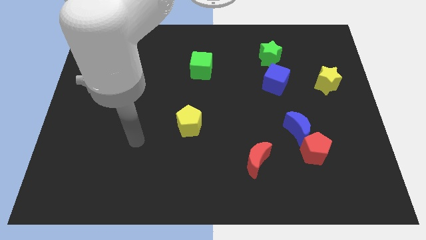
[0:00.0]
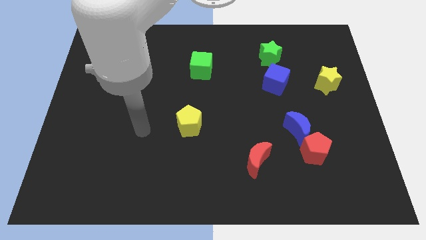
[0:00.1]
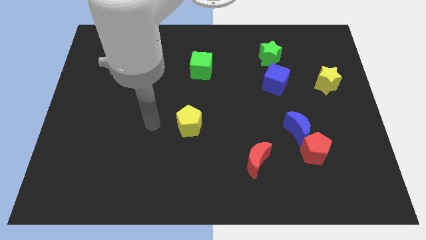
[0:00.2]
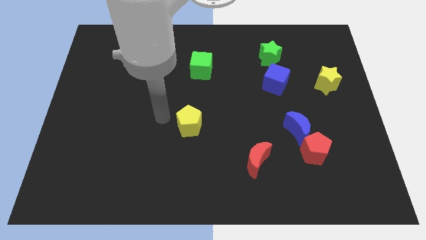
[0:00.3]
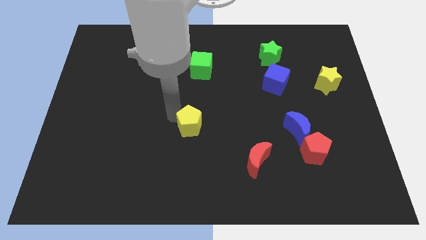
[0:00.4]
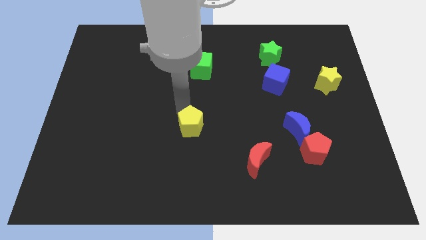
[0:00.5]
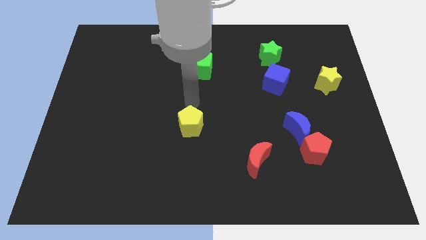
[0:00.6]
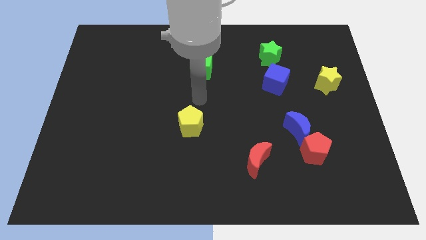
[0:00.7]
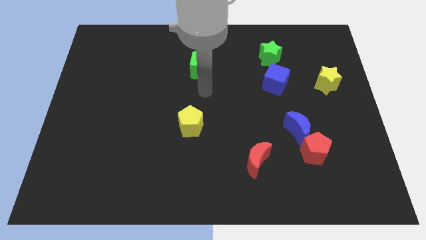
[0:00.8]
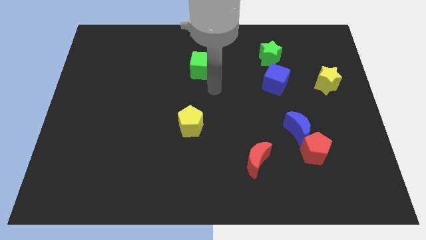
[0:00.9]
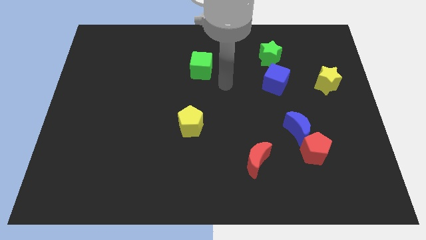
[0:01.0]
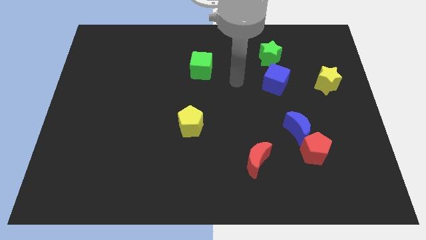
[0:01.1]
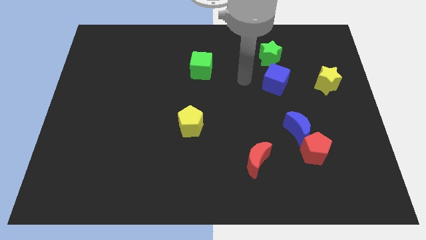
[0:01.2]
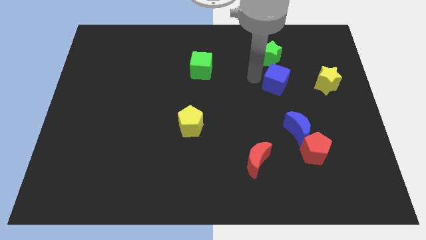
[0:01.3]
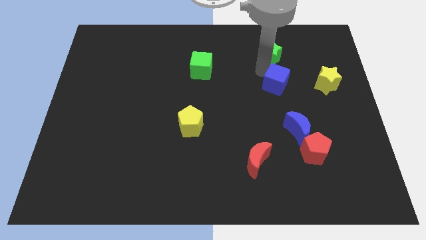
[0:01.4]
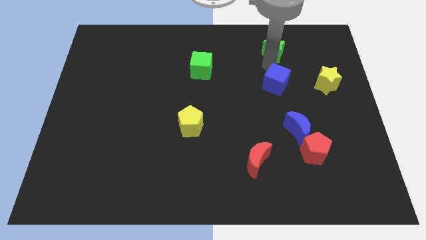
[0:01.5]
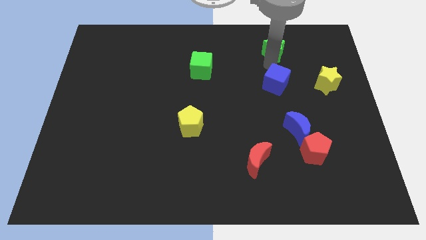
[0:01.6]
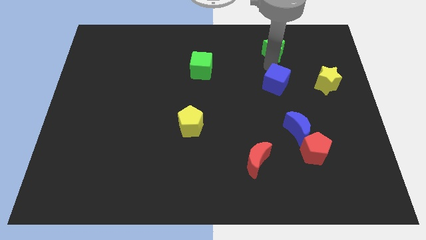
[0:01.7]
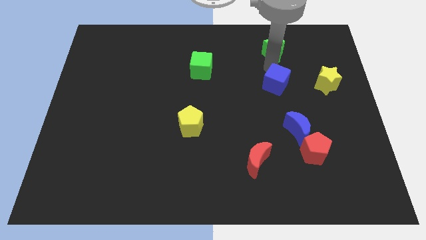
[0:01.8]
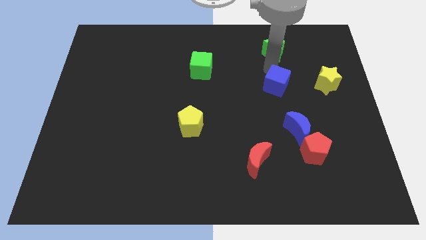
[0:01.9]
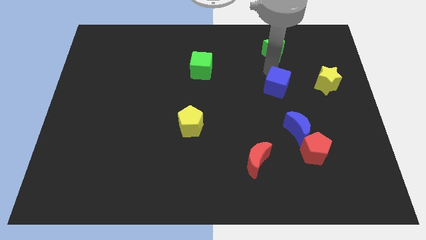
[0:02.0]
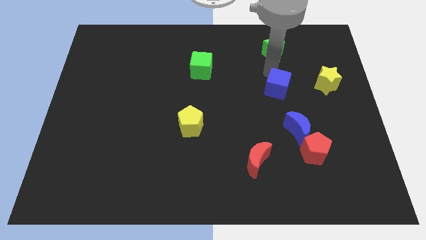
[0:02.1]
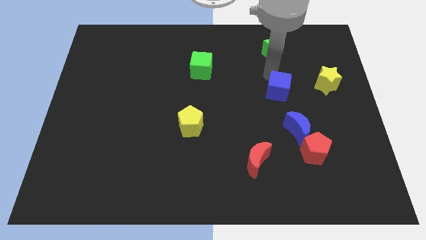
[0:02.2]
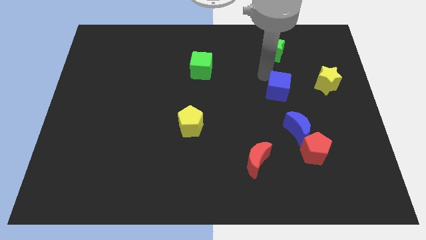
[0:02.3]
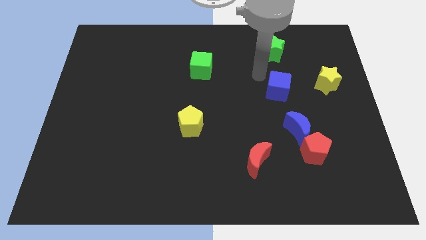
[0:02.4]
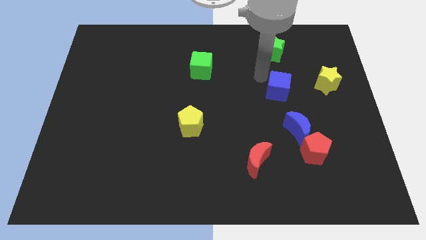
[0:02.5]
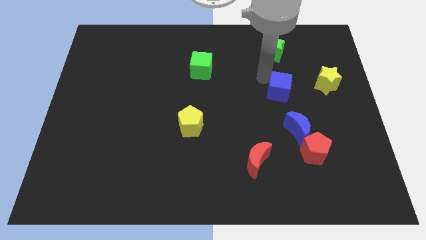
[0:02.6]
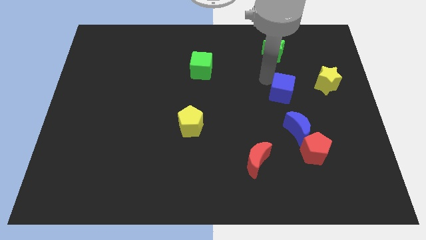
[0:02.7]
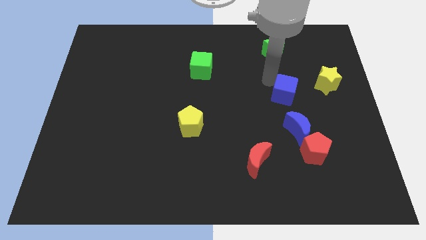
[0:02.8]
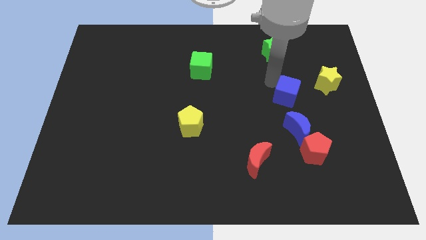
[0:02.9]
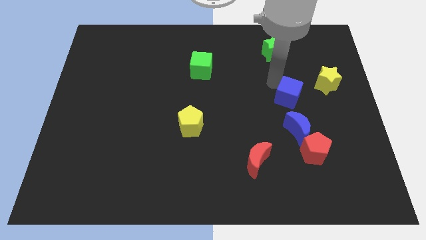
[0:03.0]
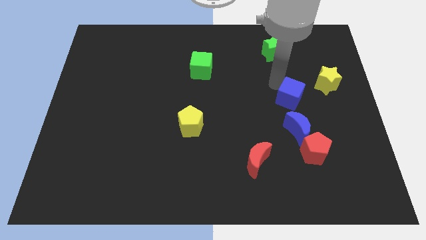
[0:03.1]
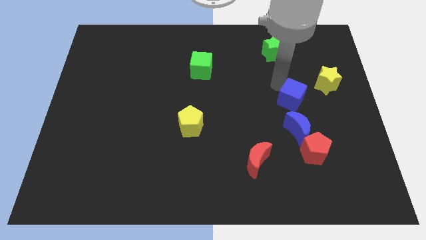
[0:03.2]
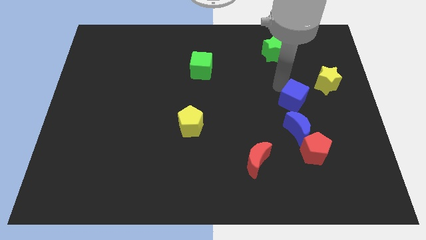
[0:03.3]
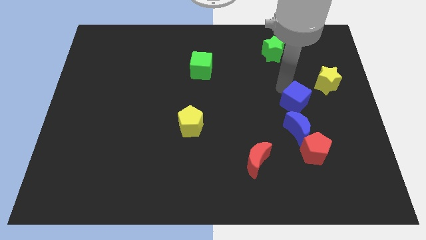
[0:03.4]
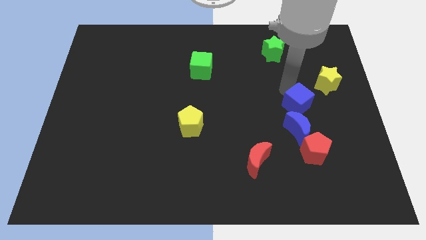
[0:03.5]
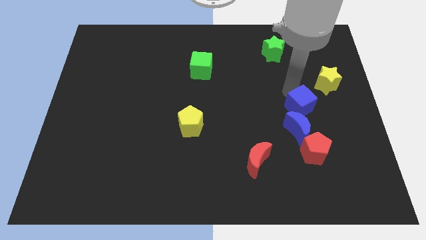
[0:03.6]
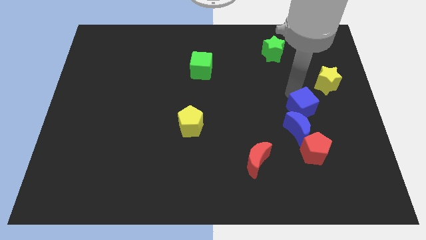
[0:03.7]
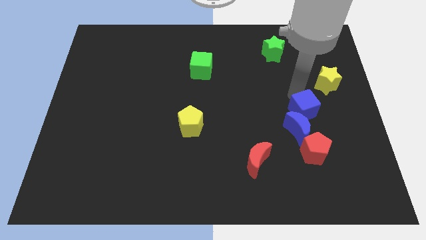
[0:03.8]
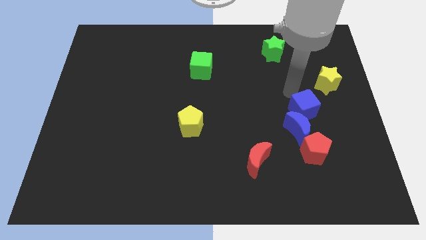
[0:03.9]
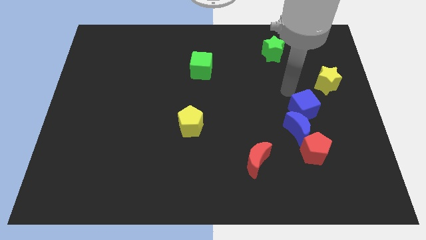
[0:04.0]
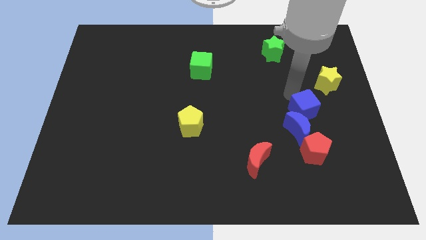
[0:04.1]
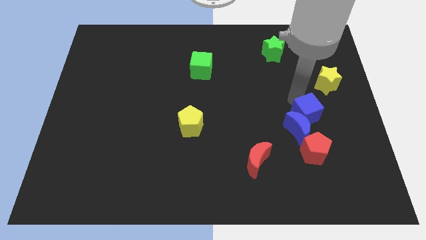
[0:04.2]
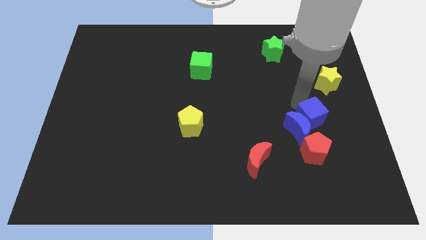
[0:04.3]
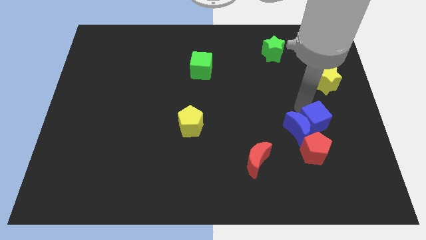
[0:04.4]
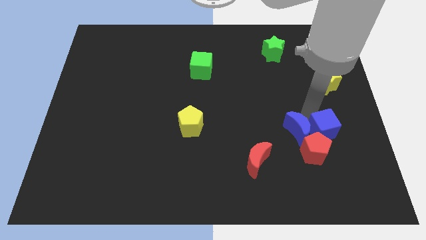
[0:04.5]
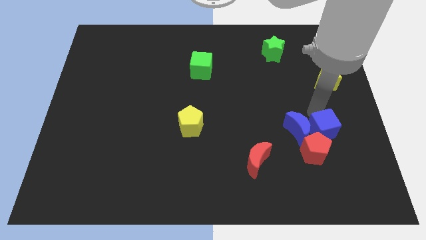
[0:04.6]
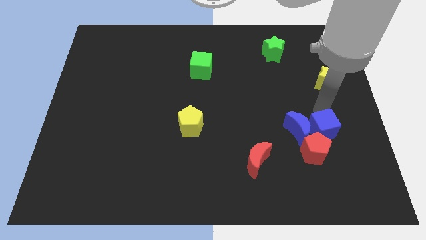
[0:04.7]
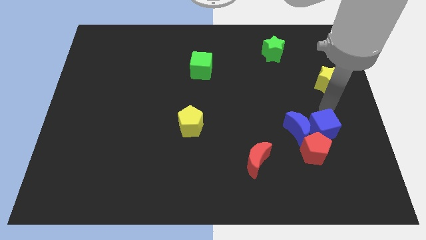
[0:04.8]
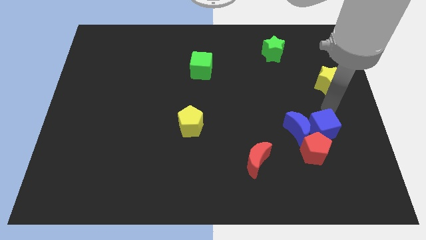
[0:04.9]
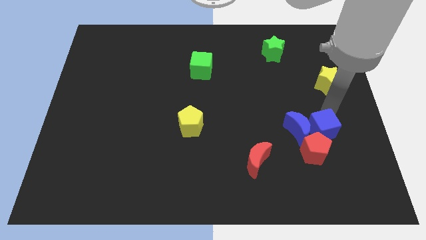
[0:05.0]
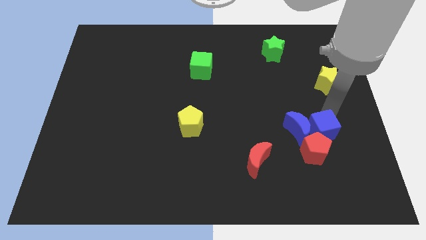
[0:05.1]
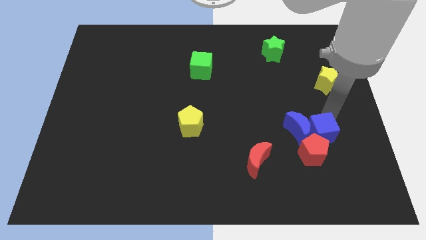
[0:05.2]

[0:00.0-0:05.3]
move the blue cube towards the red pentagon

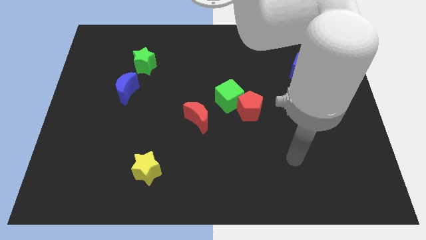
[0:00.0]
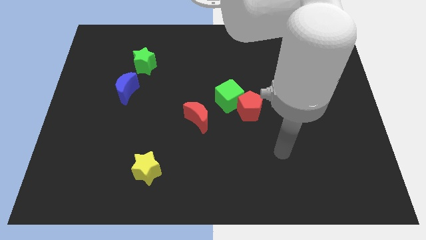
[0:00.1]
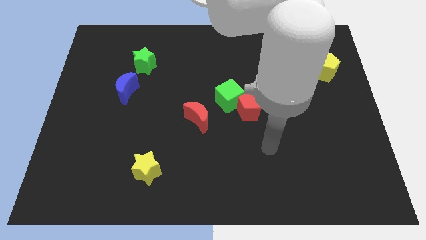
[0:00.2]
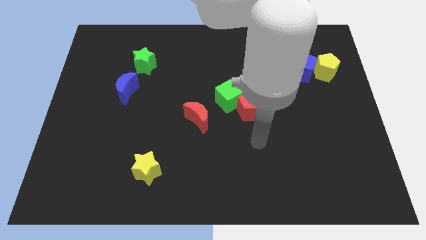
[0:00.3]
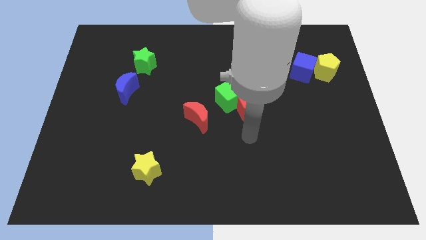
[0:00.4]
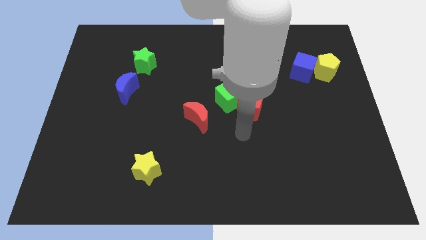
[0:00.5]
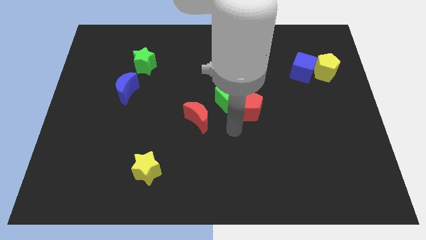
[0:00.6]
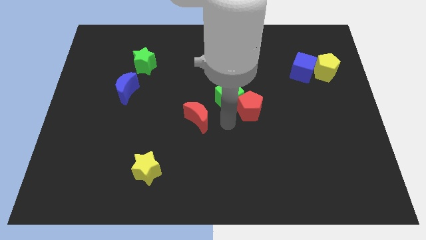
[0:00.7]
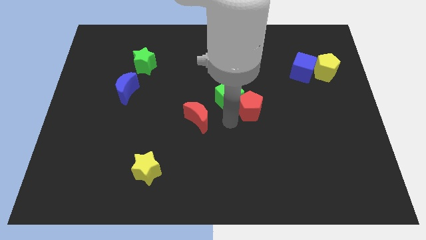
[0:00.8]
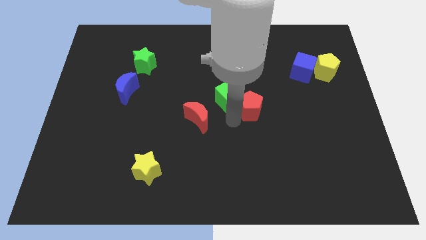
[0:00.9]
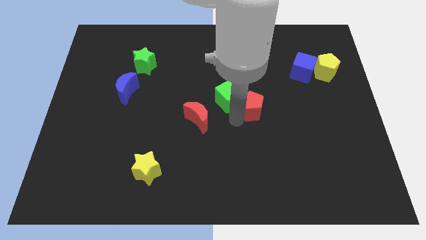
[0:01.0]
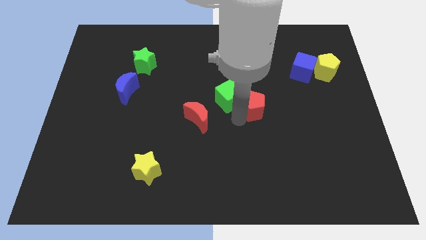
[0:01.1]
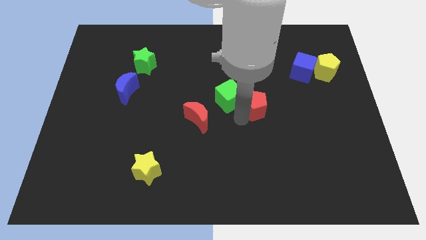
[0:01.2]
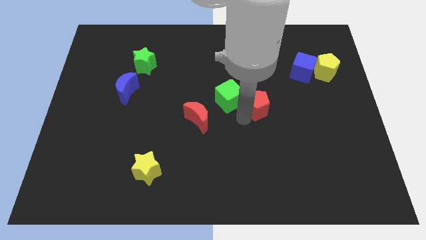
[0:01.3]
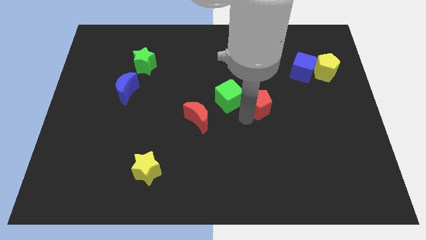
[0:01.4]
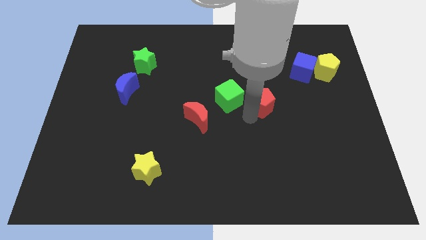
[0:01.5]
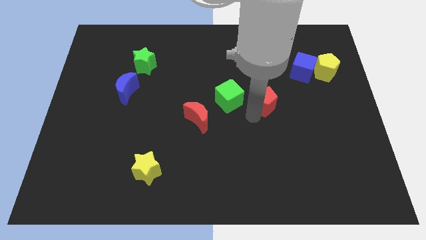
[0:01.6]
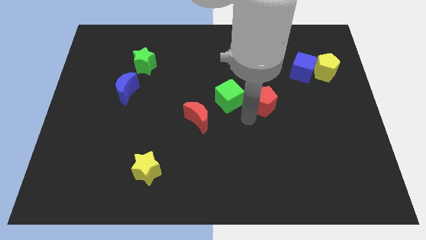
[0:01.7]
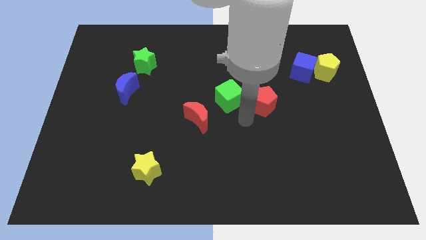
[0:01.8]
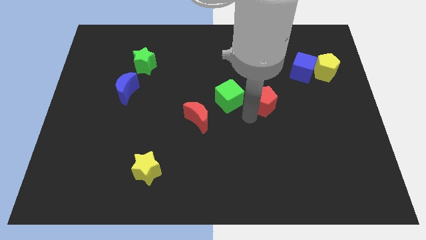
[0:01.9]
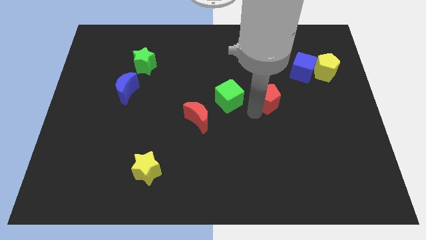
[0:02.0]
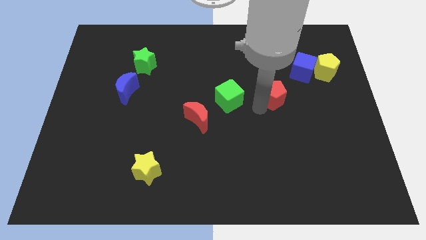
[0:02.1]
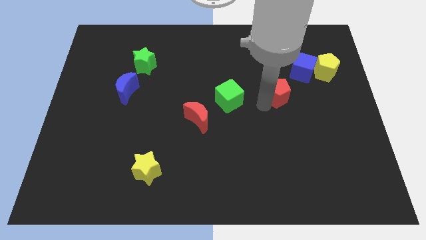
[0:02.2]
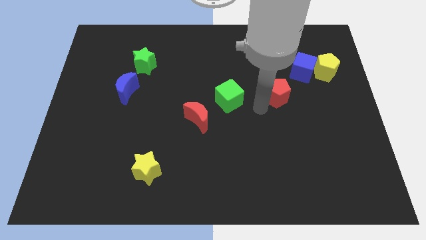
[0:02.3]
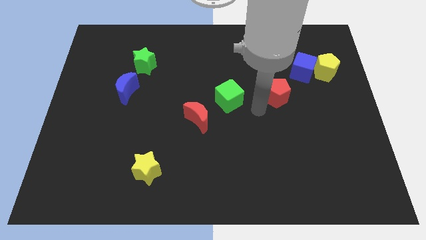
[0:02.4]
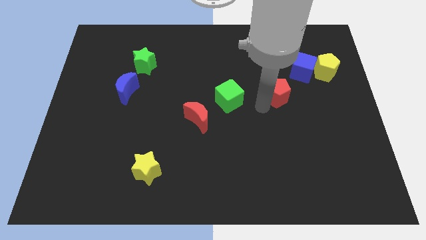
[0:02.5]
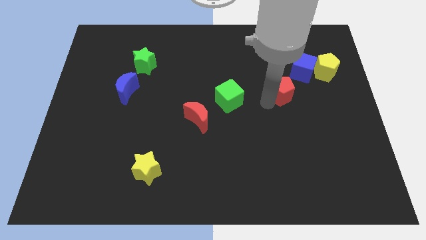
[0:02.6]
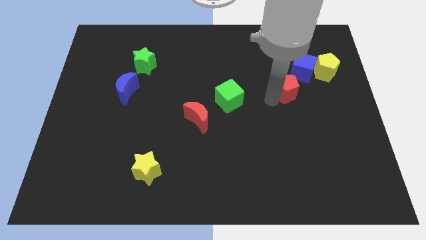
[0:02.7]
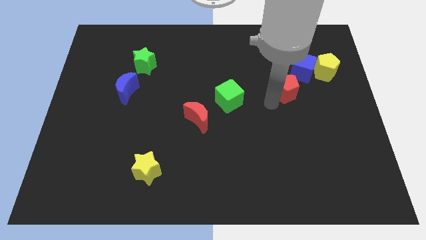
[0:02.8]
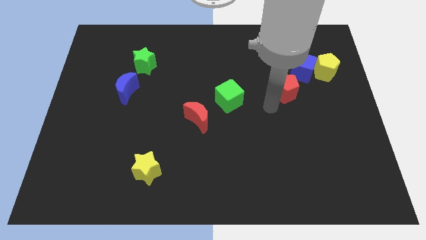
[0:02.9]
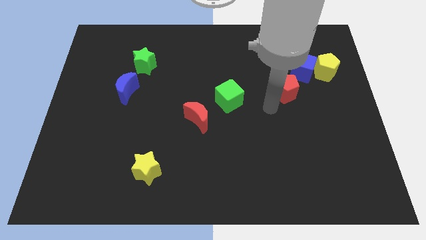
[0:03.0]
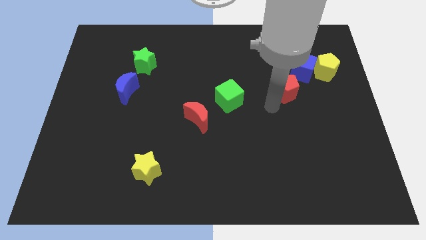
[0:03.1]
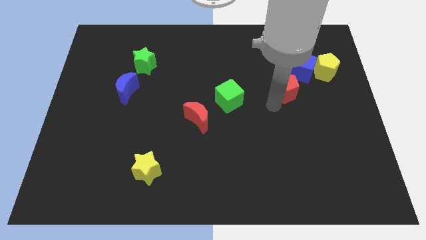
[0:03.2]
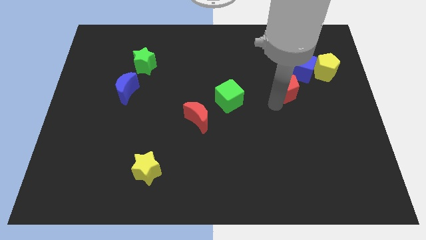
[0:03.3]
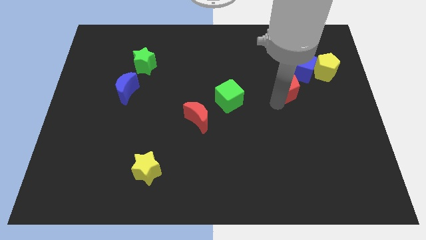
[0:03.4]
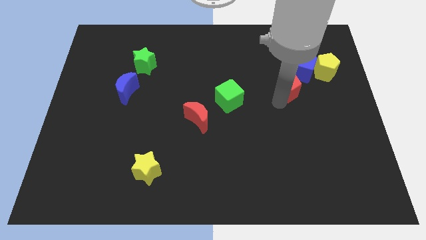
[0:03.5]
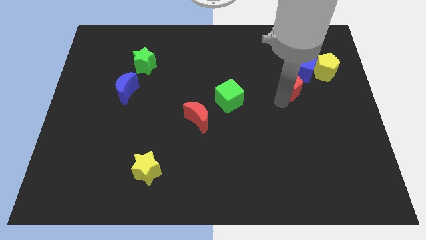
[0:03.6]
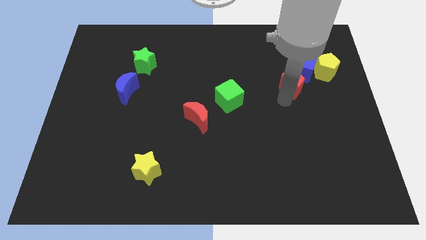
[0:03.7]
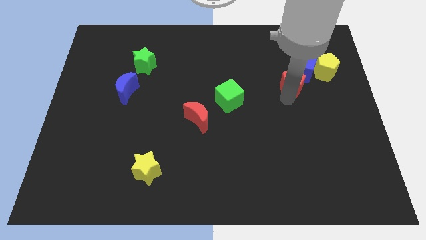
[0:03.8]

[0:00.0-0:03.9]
push the red pentagon to the blue cube
